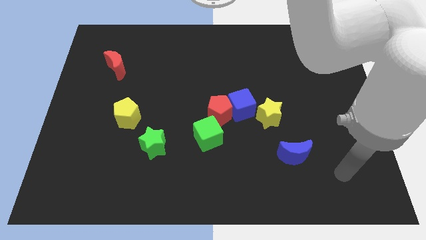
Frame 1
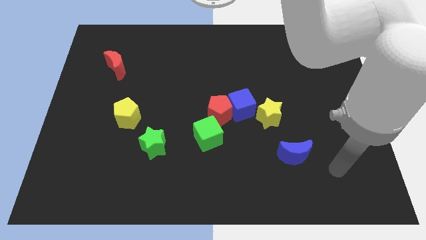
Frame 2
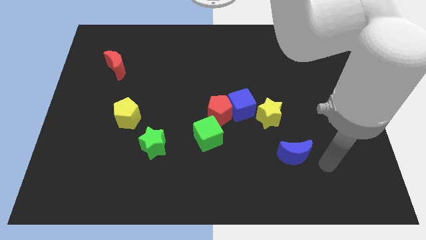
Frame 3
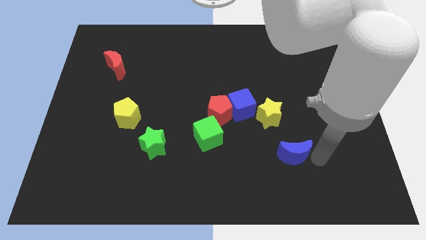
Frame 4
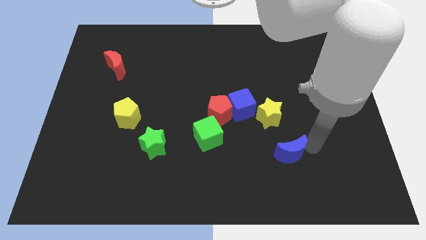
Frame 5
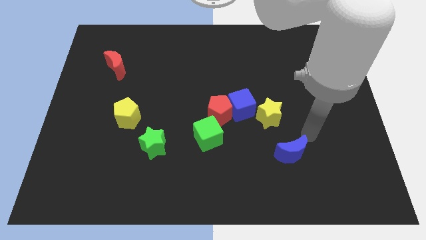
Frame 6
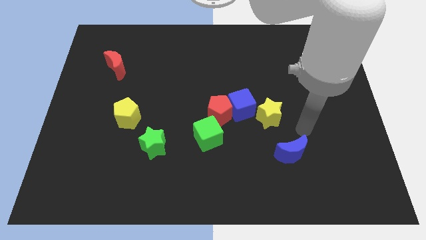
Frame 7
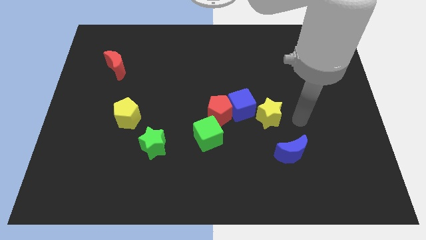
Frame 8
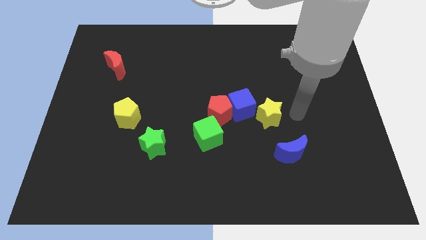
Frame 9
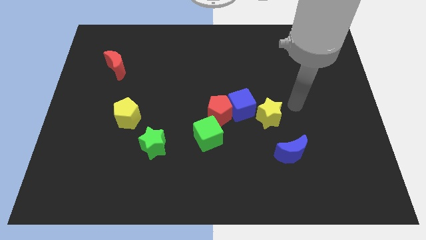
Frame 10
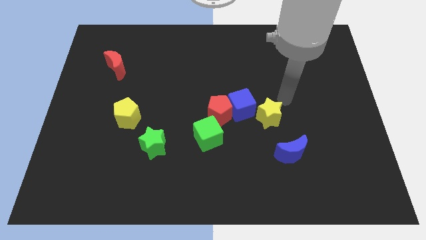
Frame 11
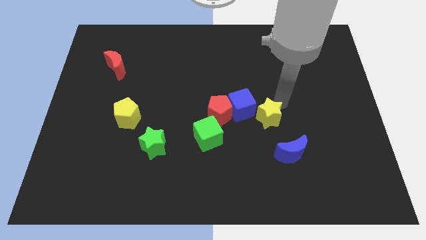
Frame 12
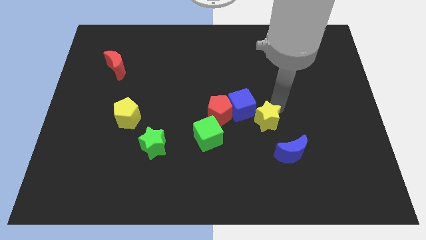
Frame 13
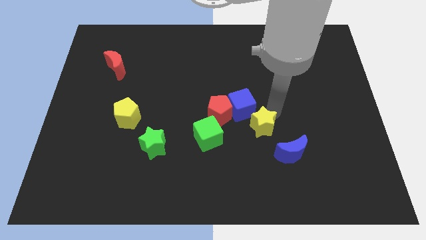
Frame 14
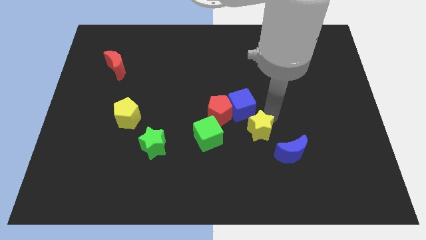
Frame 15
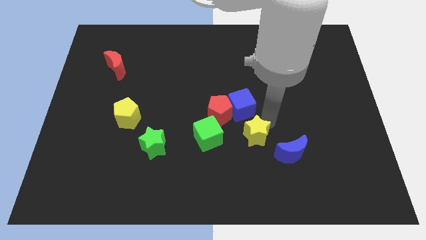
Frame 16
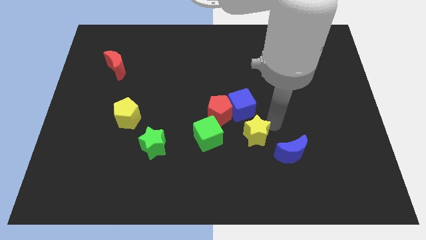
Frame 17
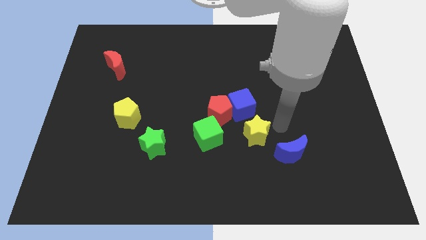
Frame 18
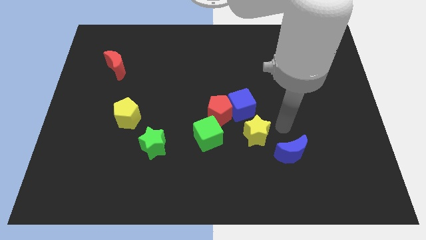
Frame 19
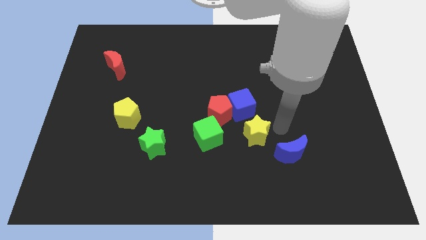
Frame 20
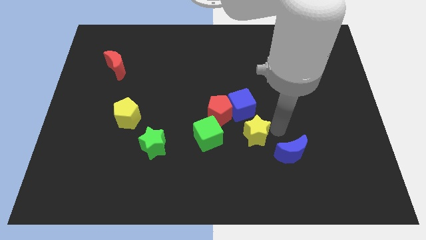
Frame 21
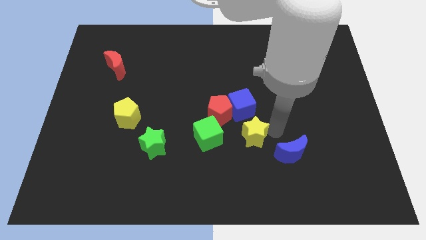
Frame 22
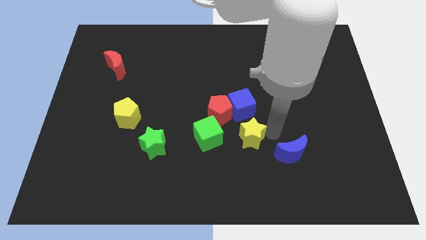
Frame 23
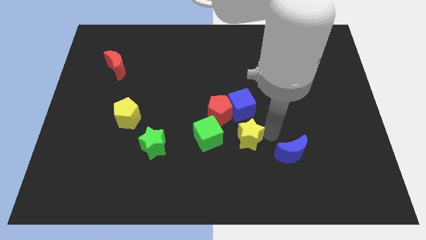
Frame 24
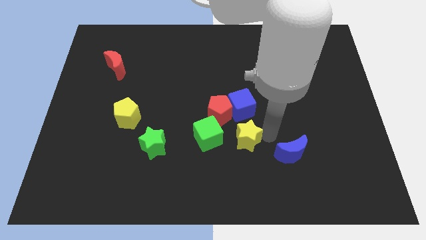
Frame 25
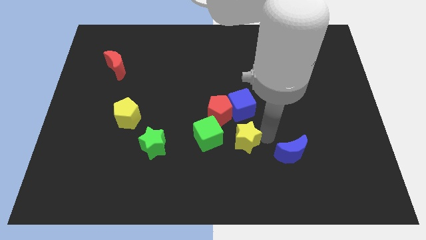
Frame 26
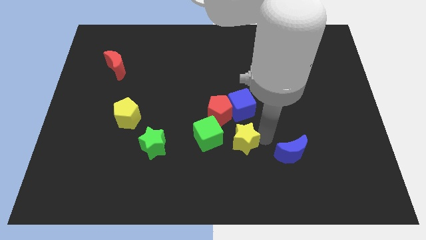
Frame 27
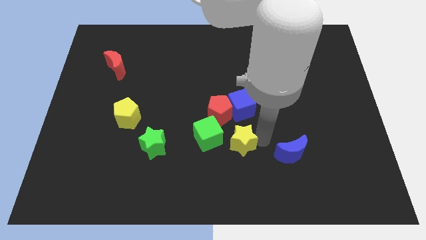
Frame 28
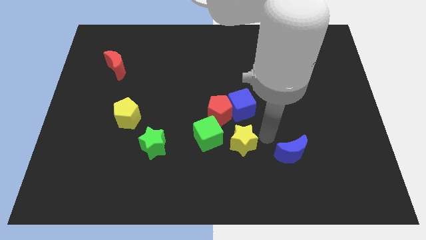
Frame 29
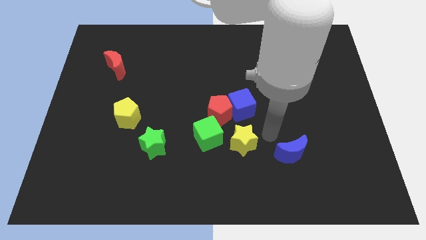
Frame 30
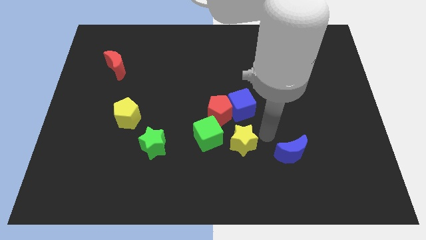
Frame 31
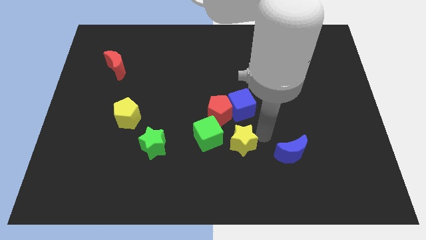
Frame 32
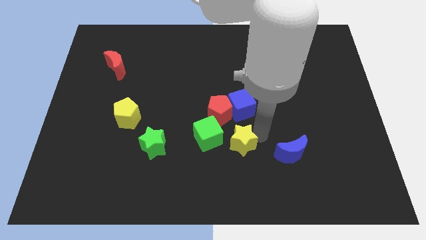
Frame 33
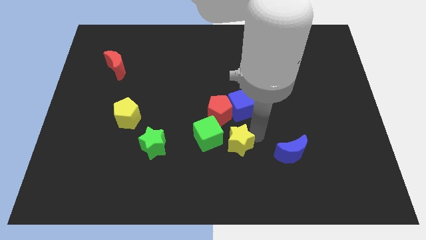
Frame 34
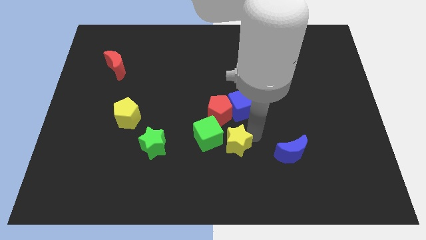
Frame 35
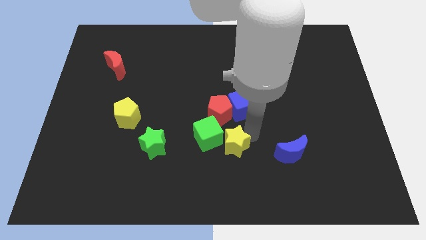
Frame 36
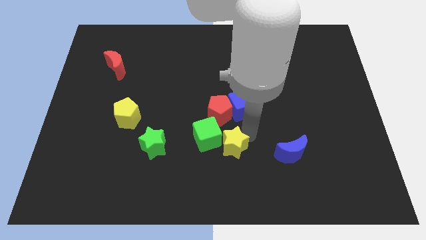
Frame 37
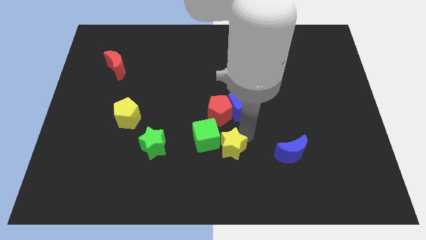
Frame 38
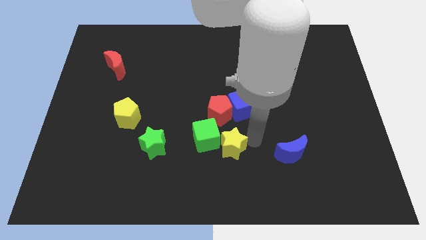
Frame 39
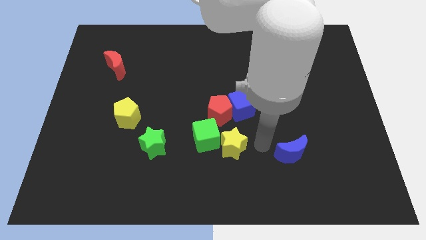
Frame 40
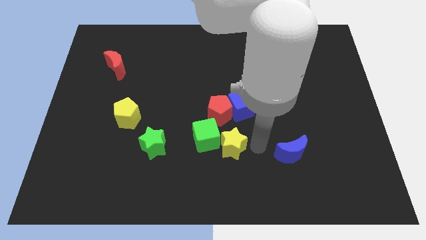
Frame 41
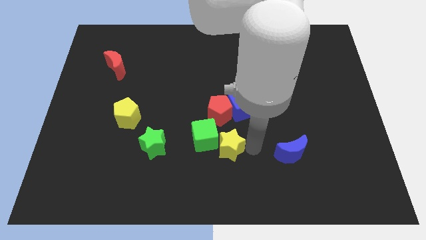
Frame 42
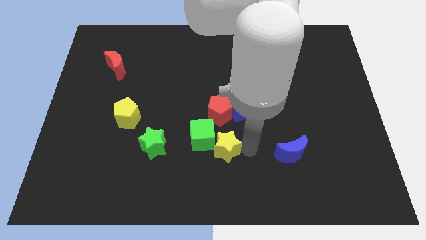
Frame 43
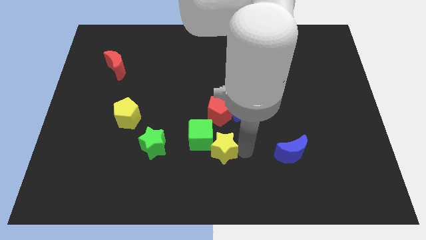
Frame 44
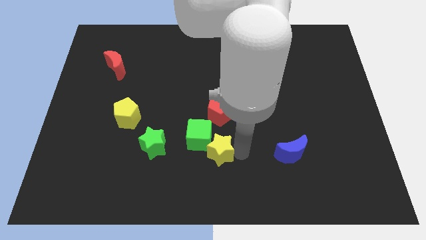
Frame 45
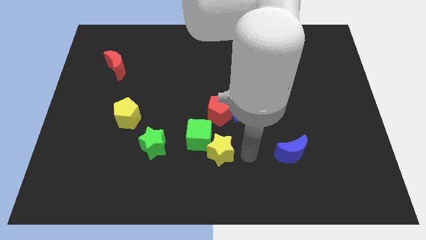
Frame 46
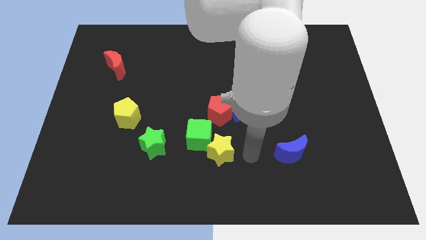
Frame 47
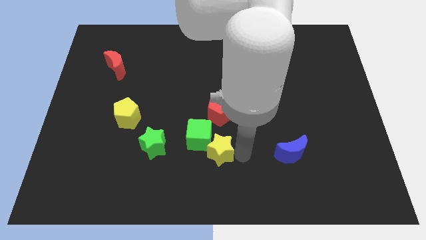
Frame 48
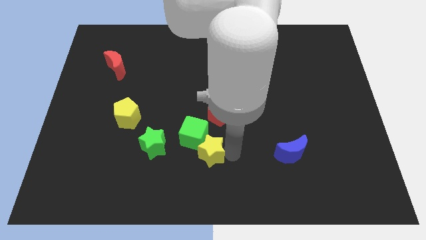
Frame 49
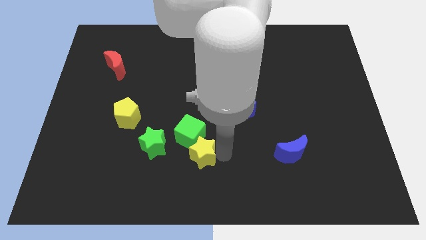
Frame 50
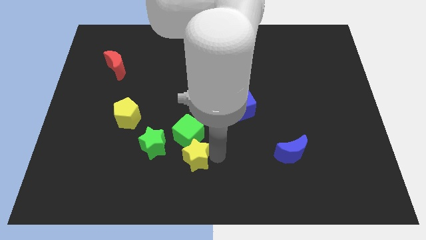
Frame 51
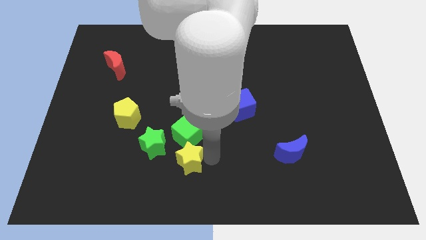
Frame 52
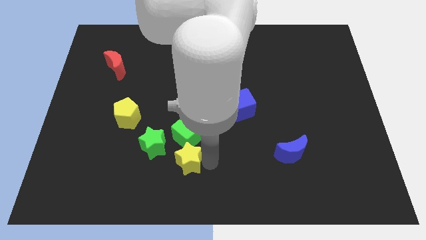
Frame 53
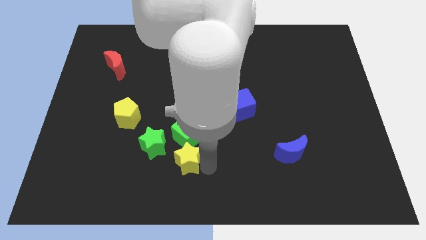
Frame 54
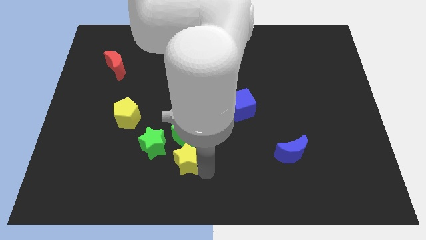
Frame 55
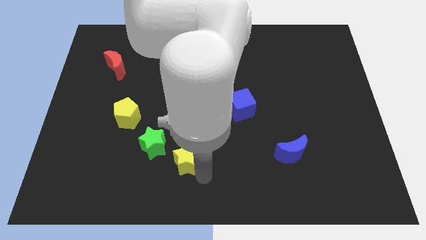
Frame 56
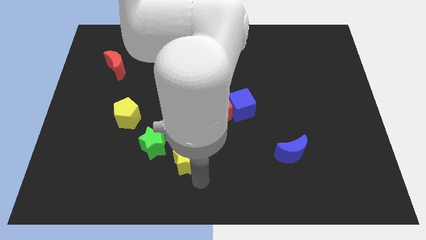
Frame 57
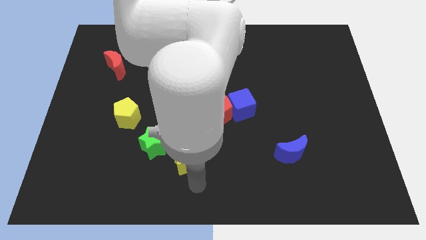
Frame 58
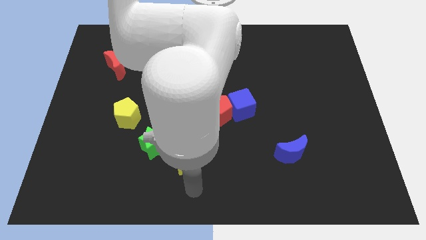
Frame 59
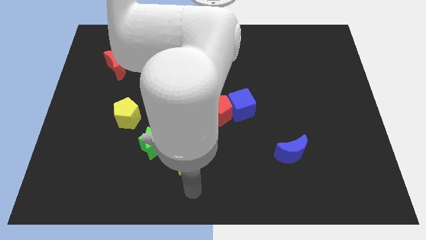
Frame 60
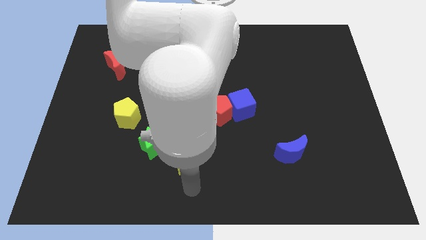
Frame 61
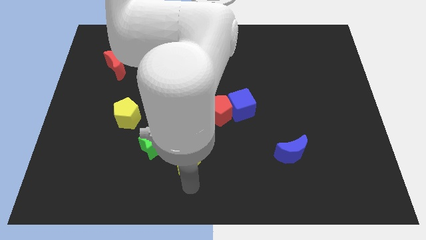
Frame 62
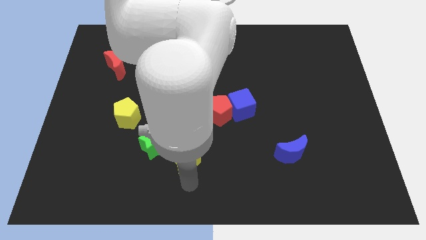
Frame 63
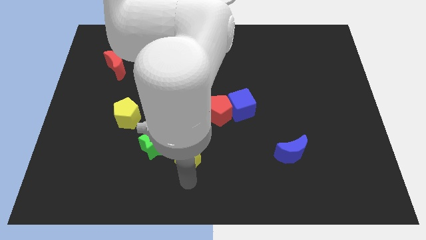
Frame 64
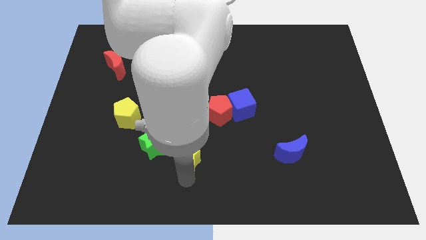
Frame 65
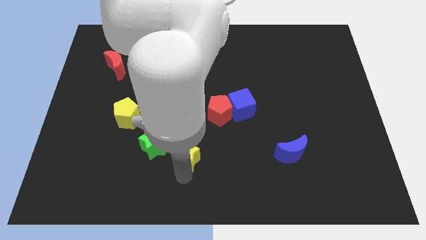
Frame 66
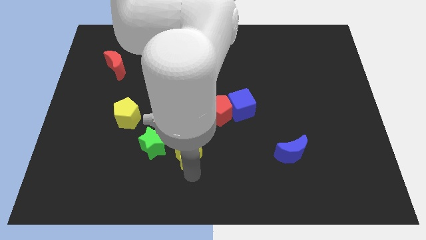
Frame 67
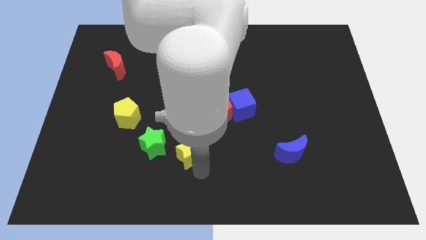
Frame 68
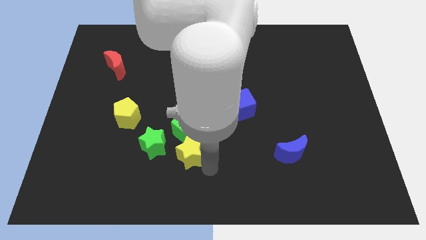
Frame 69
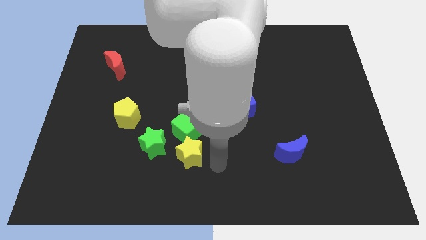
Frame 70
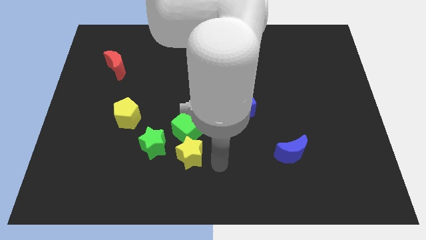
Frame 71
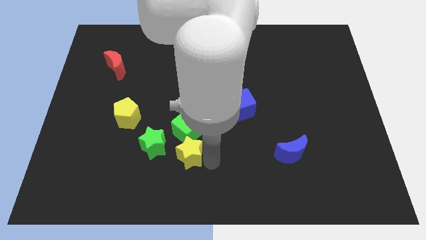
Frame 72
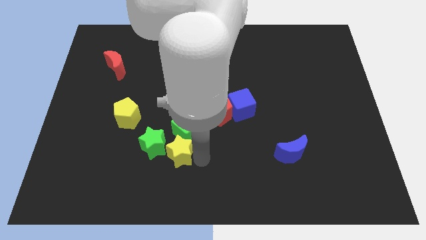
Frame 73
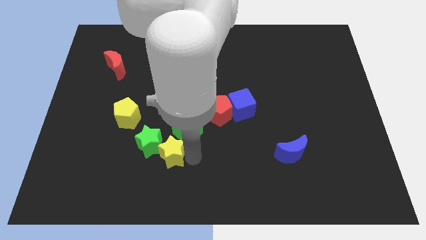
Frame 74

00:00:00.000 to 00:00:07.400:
put the yellow star towards the green star

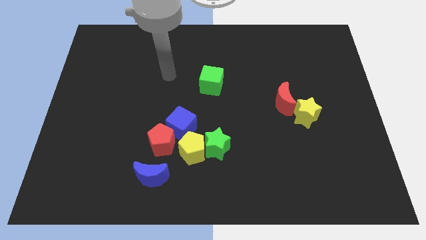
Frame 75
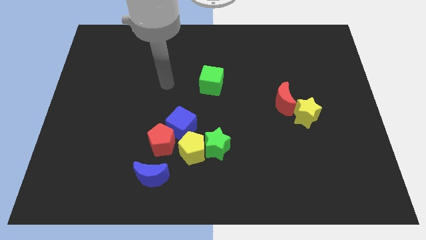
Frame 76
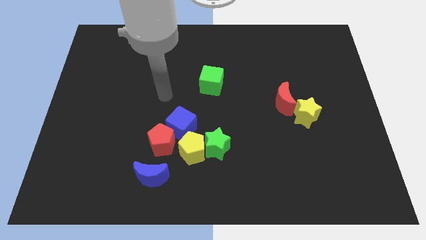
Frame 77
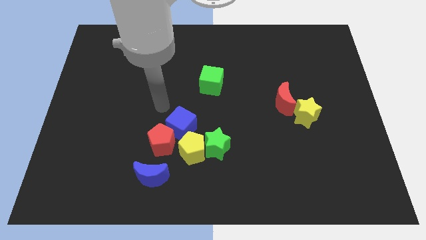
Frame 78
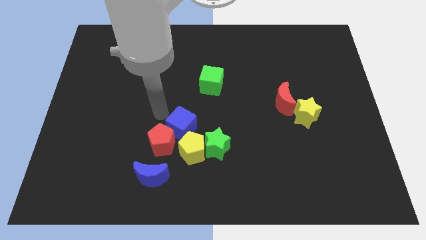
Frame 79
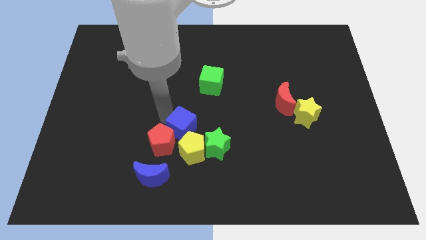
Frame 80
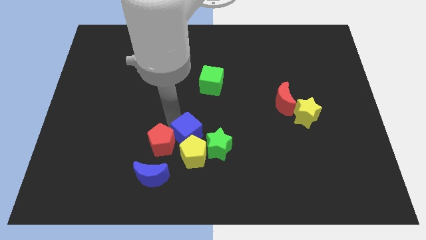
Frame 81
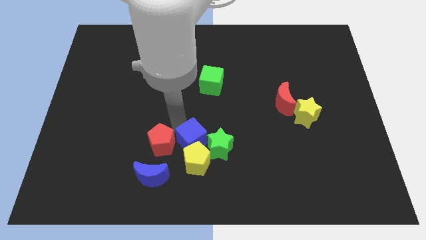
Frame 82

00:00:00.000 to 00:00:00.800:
push the blue cube close to the green star
